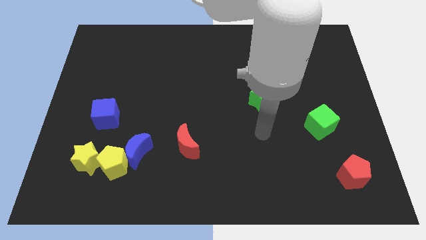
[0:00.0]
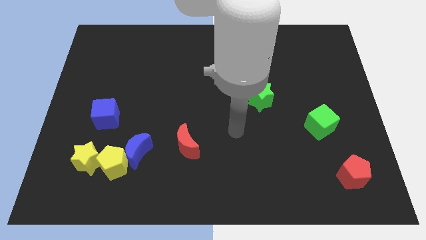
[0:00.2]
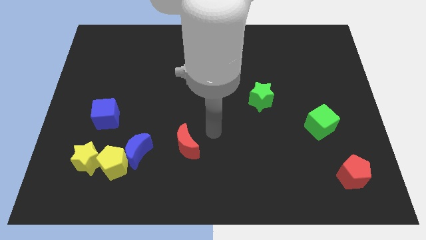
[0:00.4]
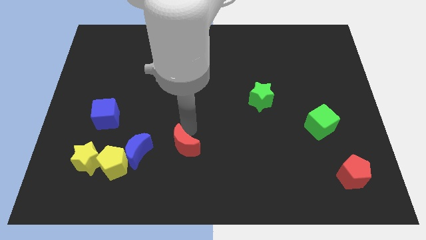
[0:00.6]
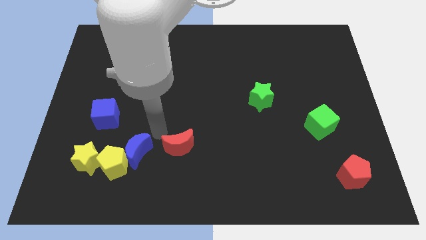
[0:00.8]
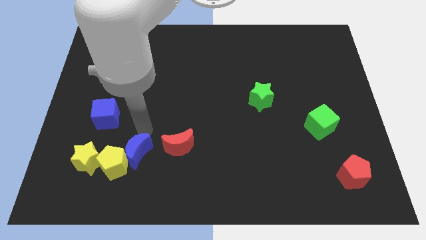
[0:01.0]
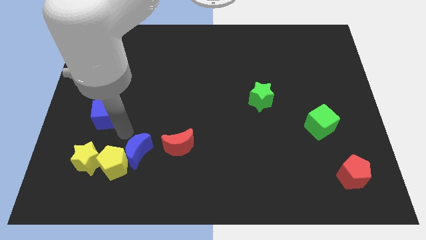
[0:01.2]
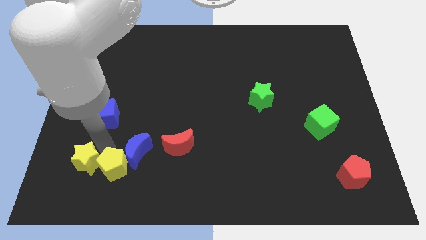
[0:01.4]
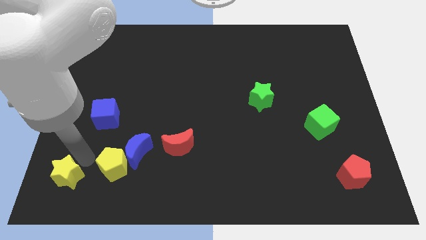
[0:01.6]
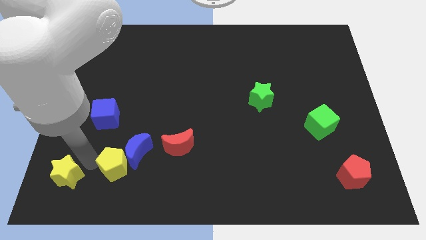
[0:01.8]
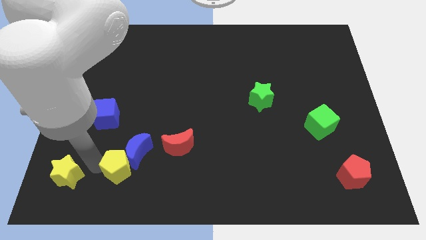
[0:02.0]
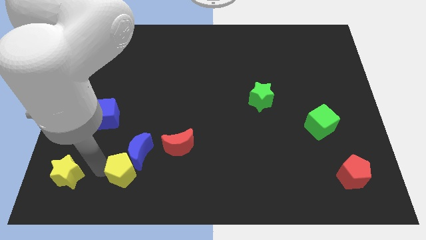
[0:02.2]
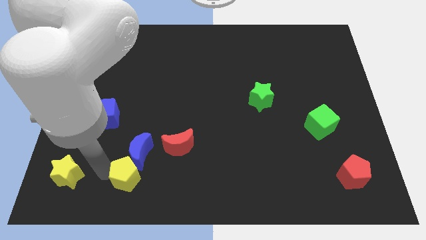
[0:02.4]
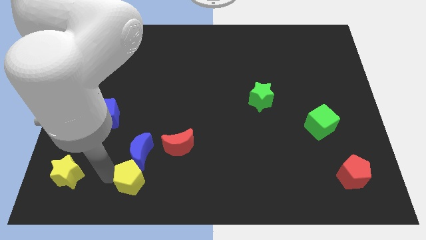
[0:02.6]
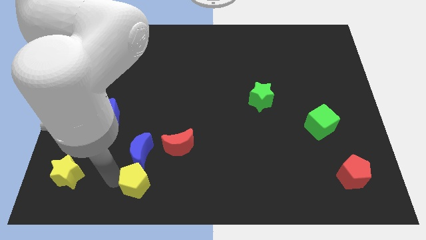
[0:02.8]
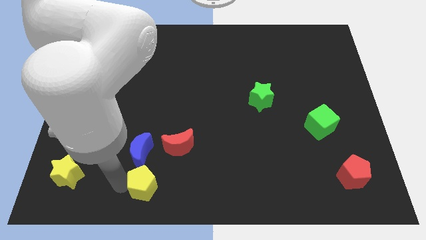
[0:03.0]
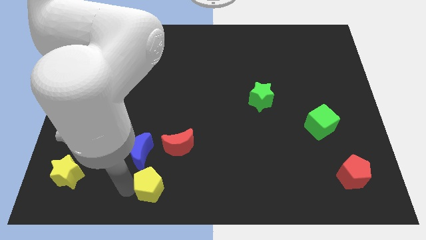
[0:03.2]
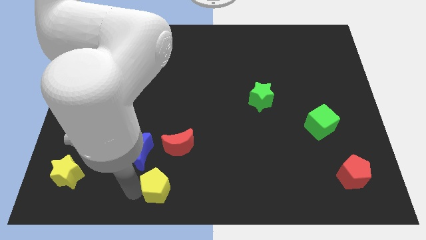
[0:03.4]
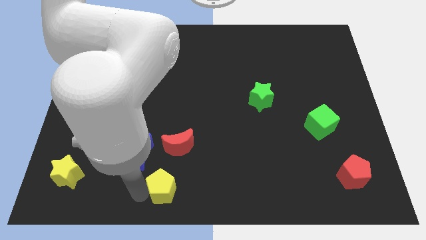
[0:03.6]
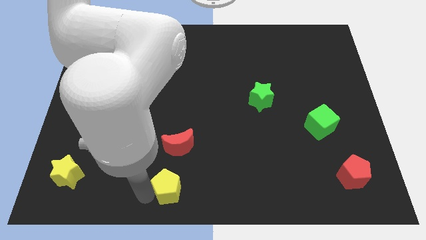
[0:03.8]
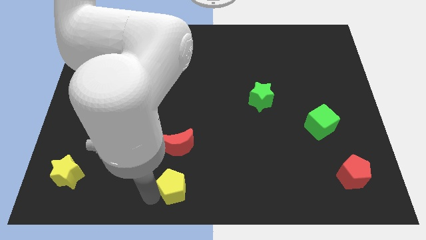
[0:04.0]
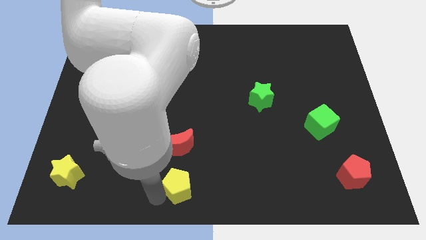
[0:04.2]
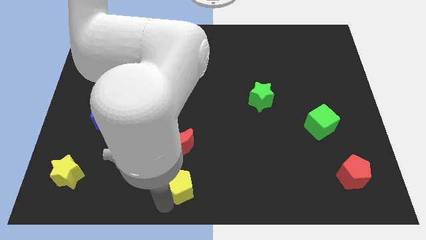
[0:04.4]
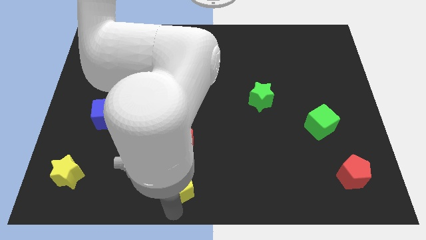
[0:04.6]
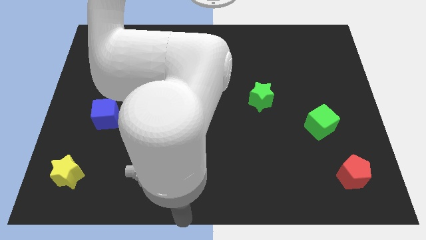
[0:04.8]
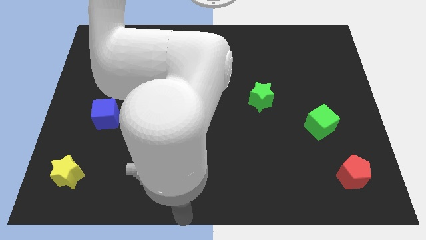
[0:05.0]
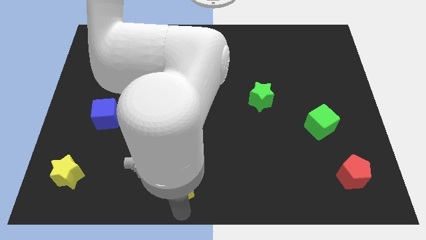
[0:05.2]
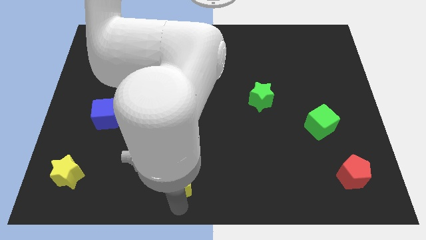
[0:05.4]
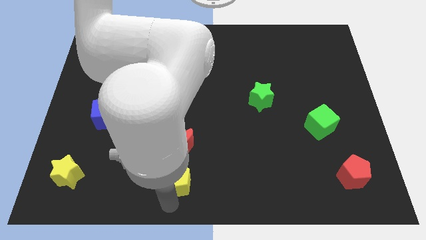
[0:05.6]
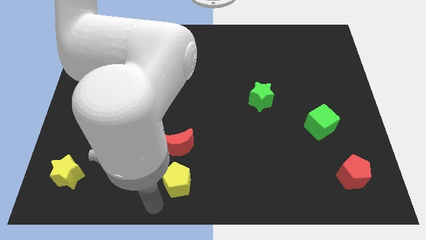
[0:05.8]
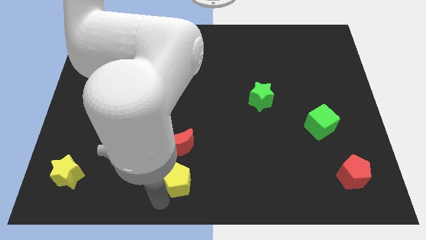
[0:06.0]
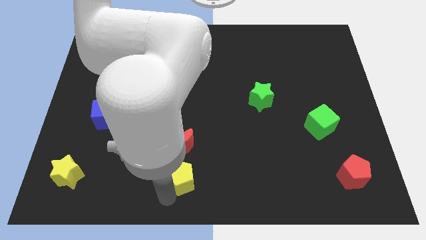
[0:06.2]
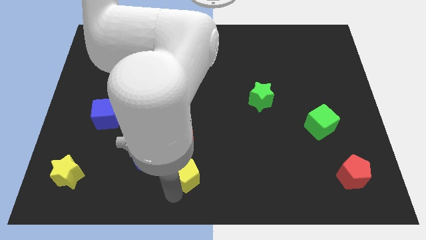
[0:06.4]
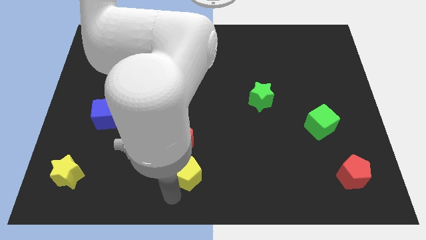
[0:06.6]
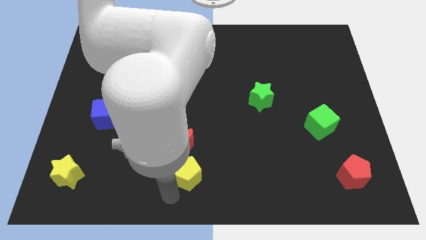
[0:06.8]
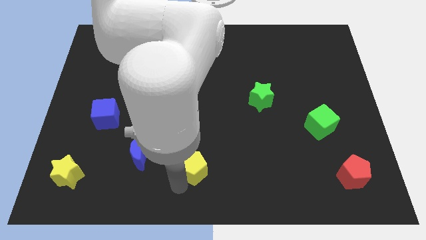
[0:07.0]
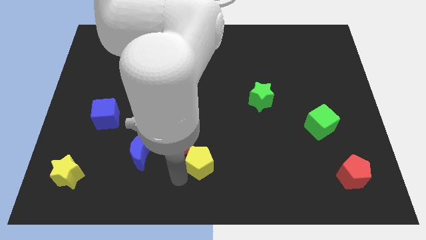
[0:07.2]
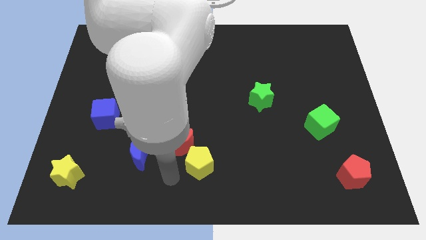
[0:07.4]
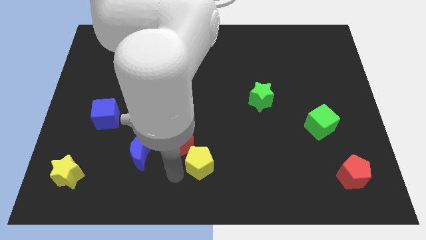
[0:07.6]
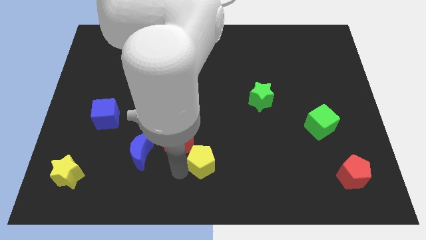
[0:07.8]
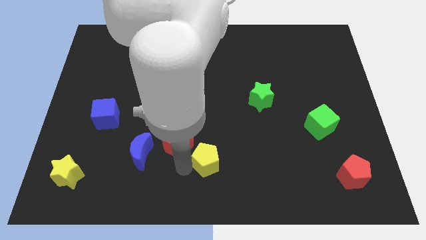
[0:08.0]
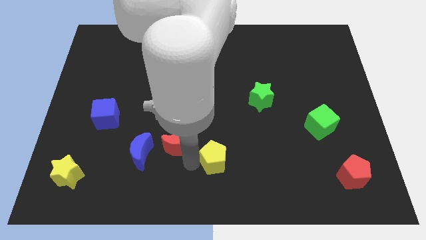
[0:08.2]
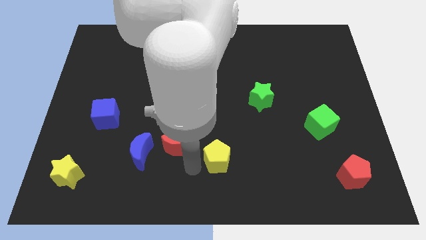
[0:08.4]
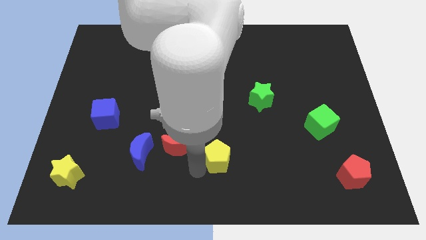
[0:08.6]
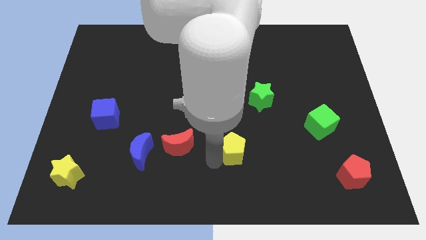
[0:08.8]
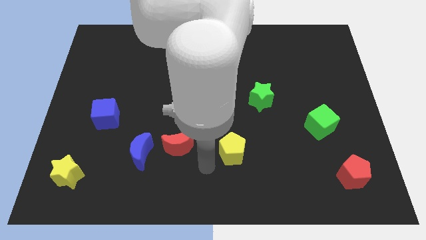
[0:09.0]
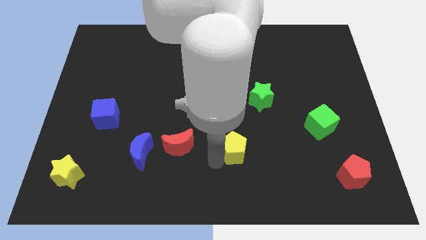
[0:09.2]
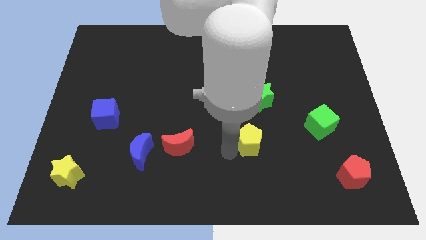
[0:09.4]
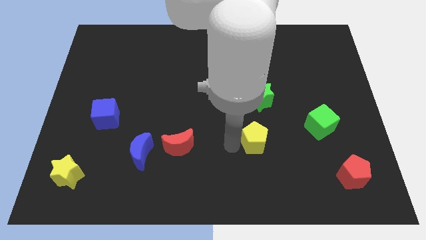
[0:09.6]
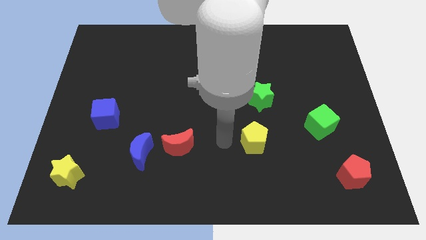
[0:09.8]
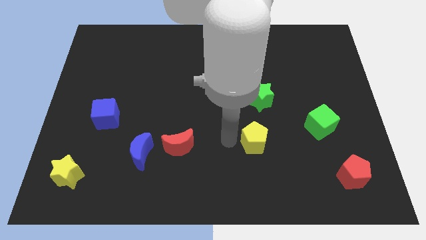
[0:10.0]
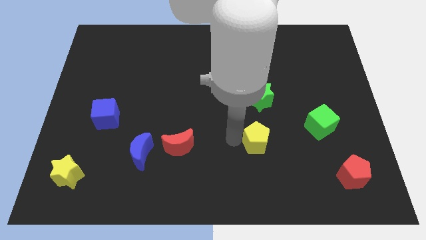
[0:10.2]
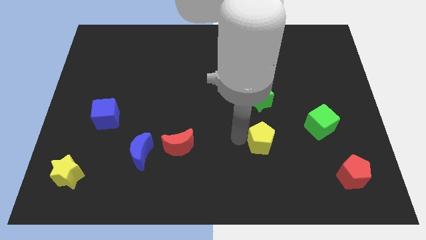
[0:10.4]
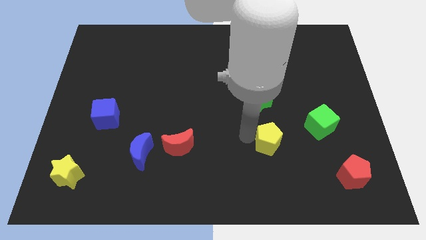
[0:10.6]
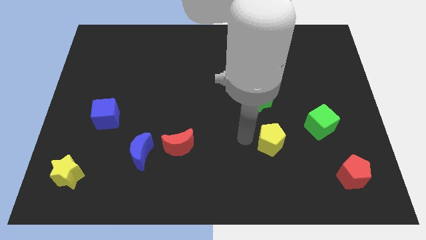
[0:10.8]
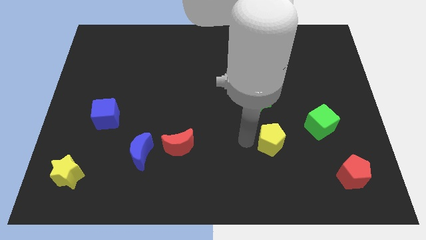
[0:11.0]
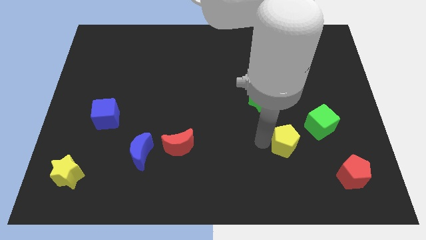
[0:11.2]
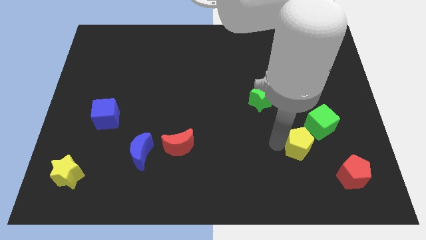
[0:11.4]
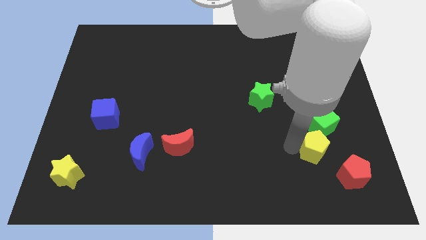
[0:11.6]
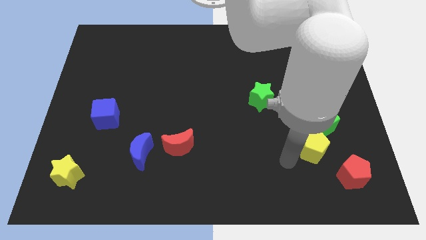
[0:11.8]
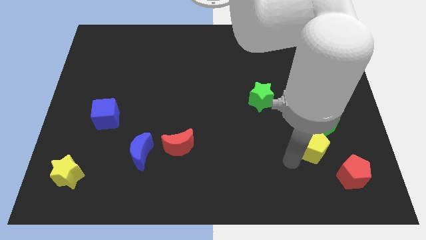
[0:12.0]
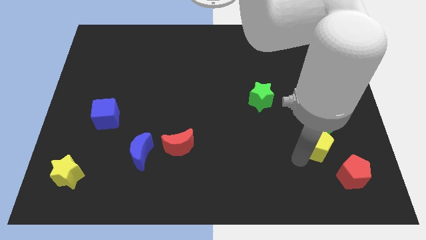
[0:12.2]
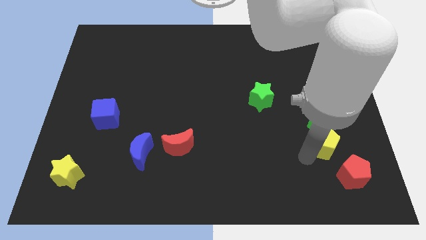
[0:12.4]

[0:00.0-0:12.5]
move the yellow pentagon to the top of the red pentagon
